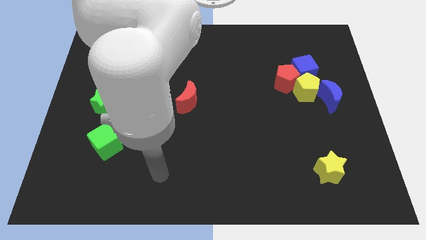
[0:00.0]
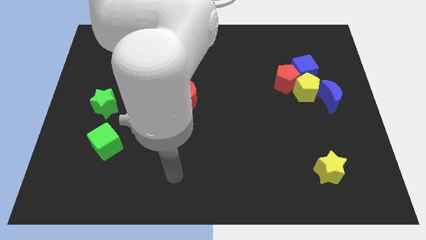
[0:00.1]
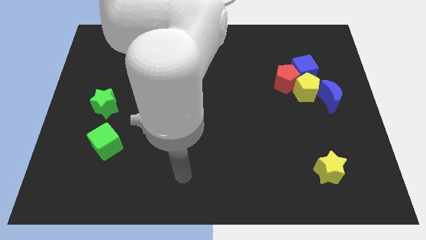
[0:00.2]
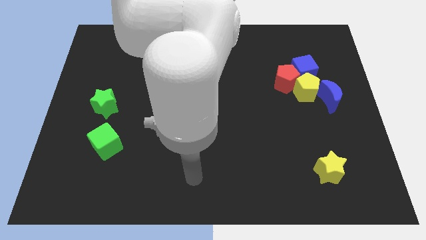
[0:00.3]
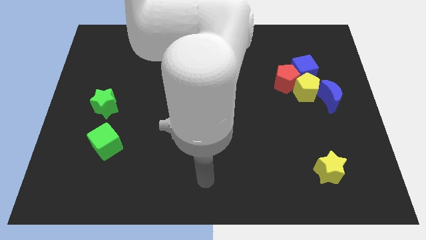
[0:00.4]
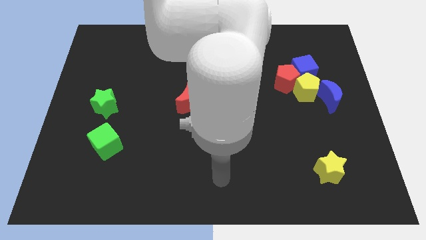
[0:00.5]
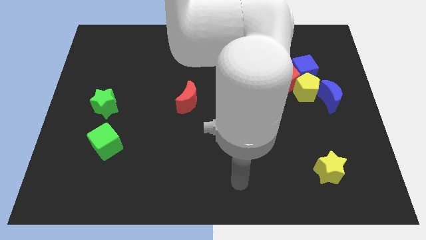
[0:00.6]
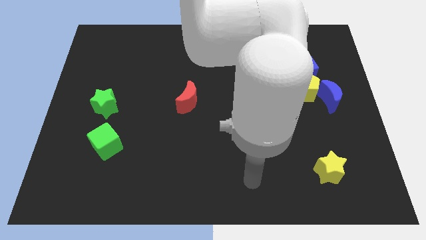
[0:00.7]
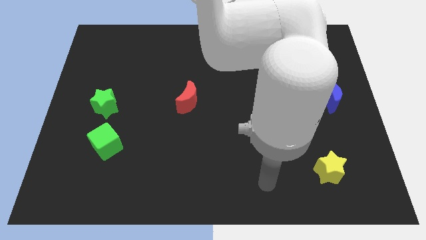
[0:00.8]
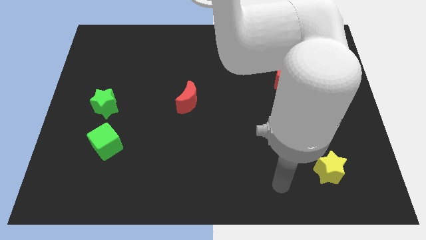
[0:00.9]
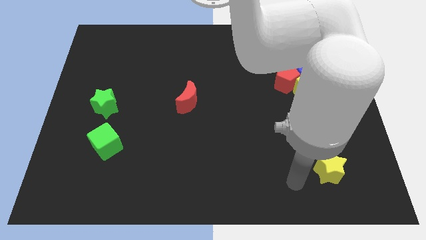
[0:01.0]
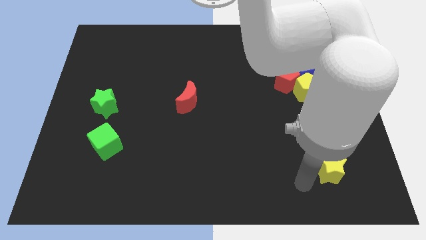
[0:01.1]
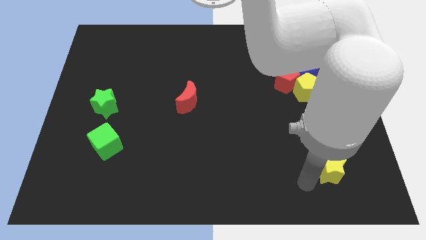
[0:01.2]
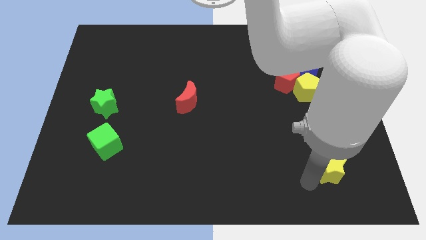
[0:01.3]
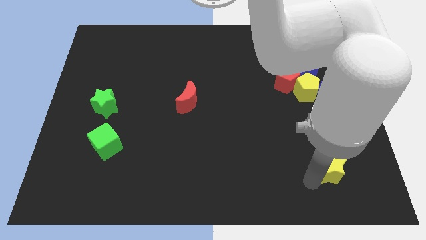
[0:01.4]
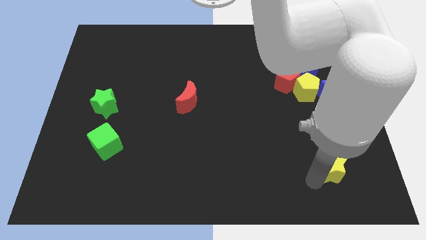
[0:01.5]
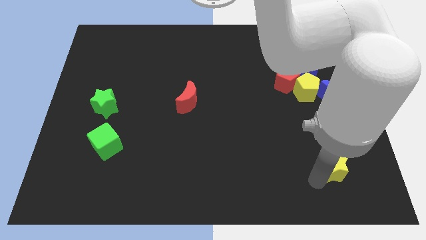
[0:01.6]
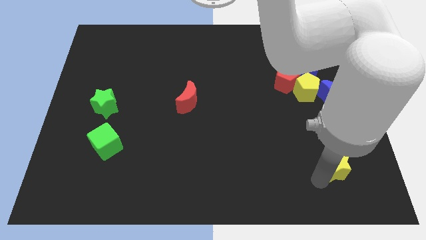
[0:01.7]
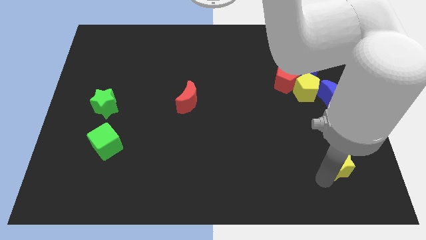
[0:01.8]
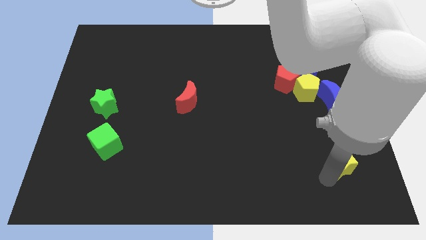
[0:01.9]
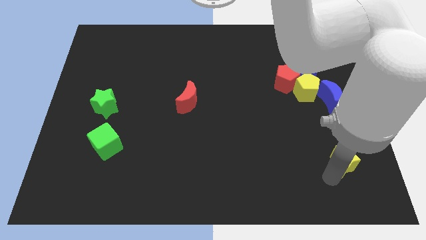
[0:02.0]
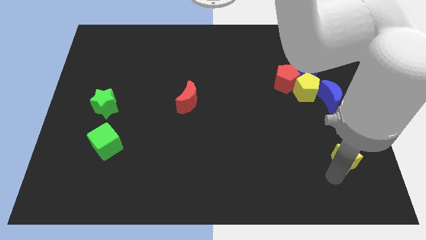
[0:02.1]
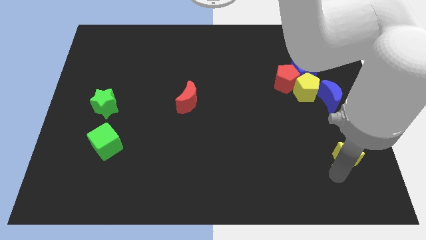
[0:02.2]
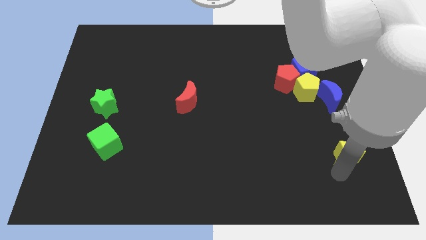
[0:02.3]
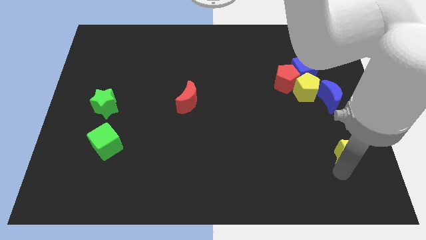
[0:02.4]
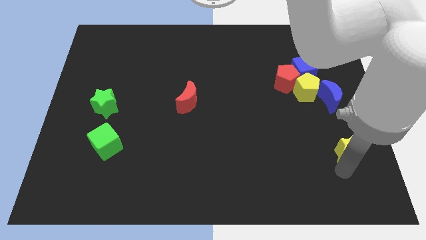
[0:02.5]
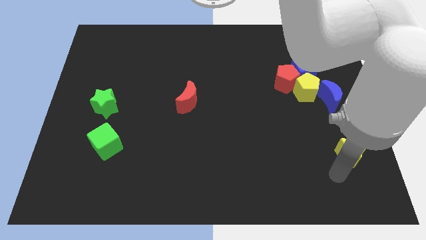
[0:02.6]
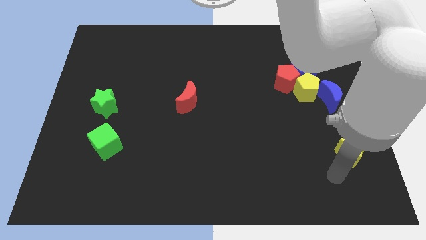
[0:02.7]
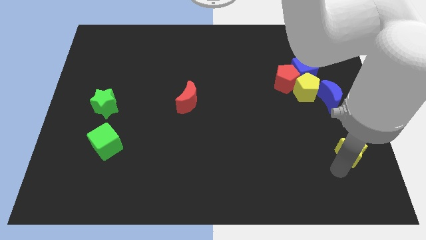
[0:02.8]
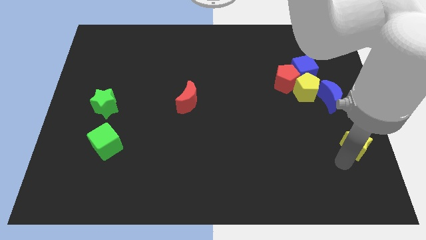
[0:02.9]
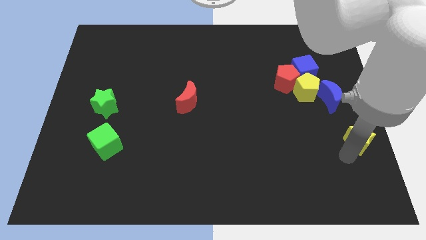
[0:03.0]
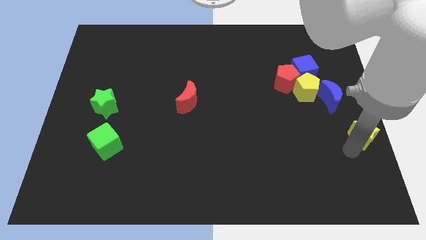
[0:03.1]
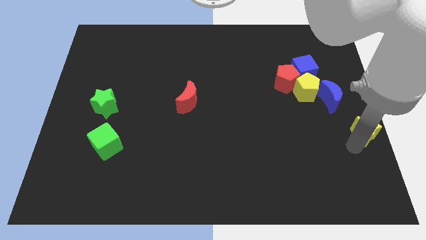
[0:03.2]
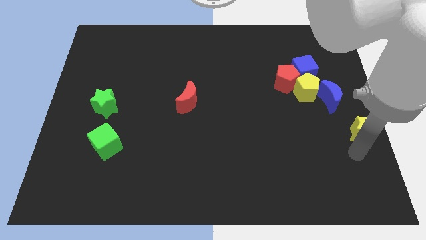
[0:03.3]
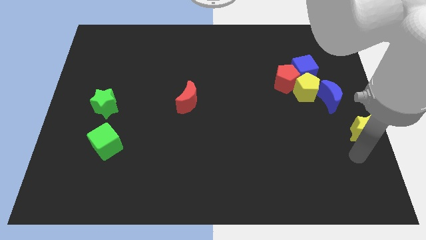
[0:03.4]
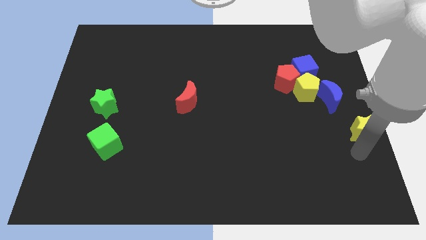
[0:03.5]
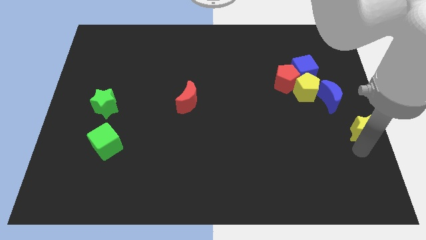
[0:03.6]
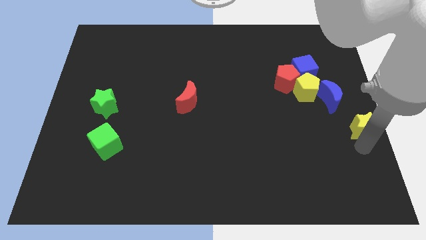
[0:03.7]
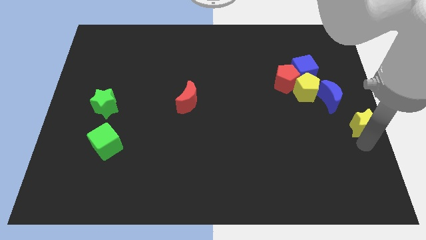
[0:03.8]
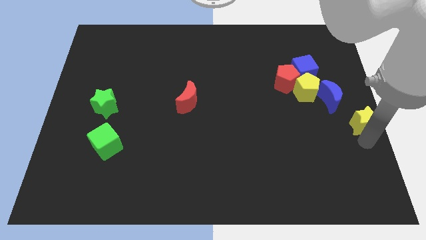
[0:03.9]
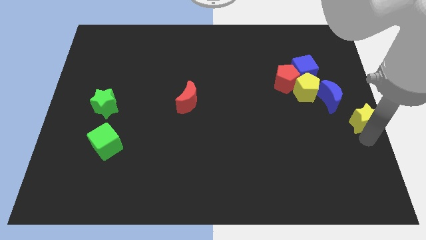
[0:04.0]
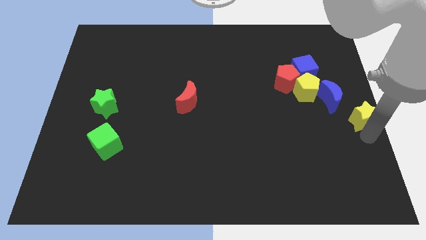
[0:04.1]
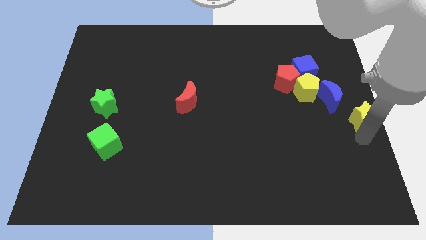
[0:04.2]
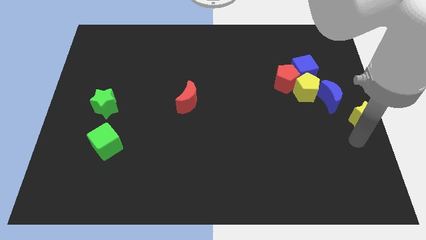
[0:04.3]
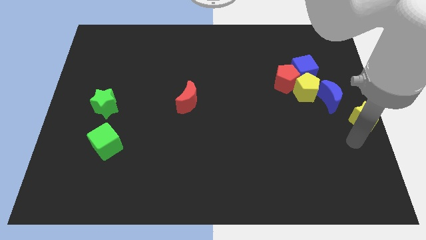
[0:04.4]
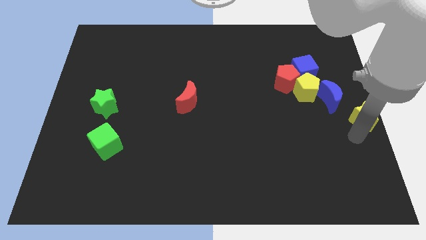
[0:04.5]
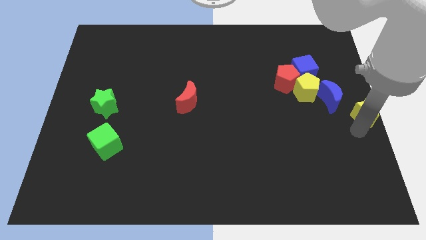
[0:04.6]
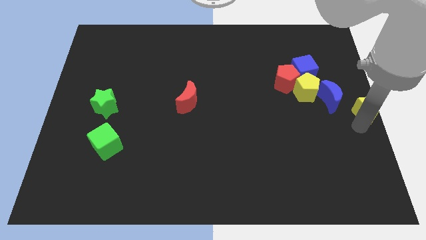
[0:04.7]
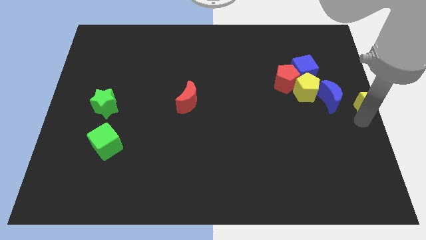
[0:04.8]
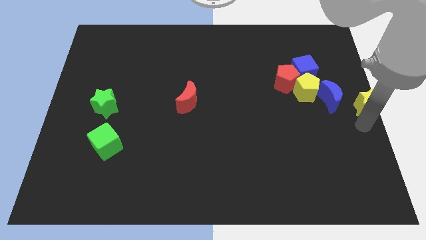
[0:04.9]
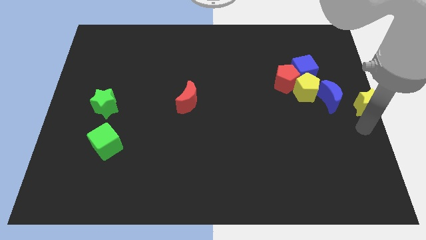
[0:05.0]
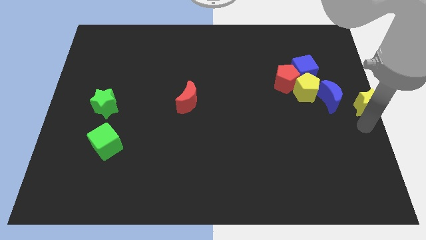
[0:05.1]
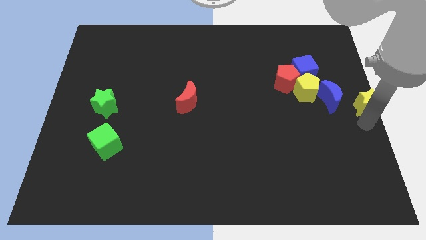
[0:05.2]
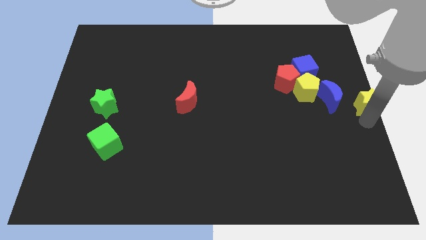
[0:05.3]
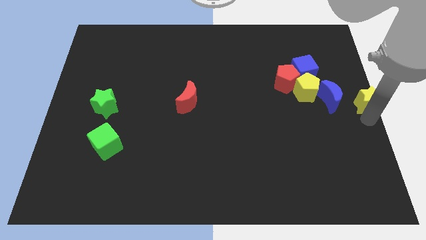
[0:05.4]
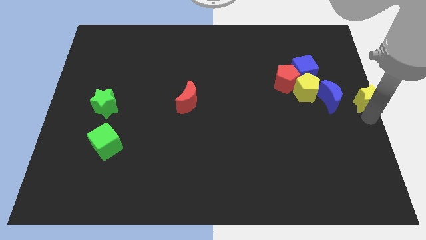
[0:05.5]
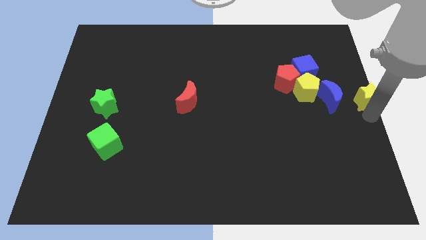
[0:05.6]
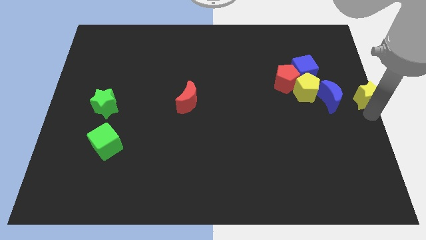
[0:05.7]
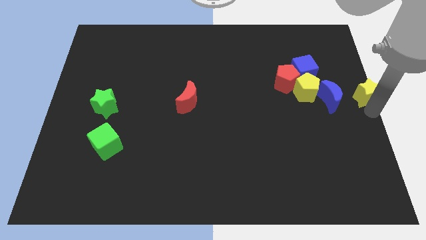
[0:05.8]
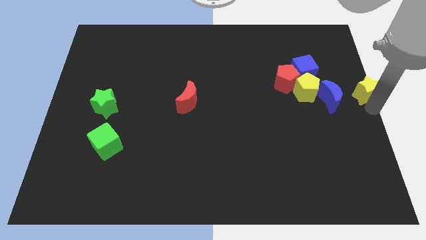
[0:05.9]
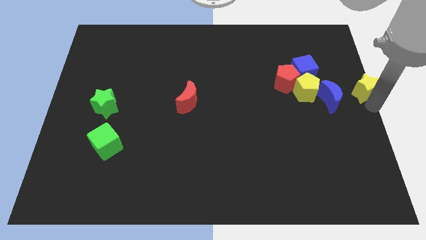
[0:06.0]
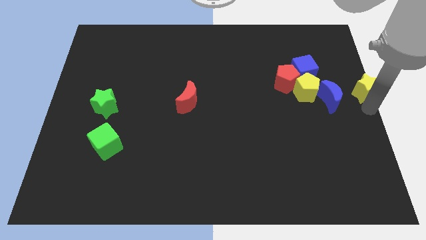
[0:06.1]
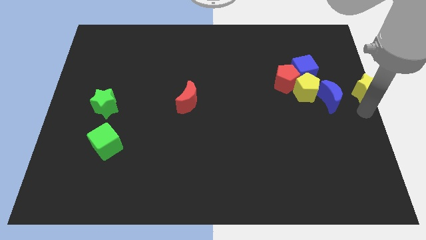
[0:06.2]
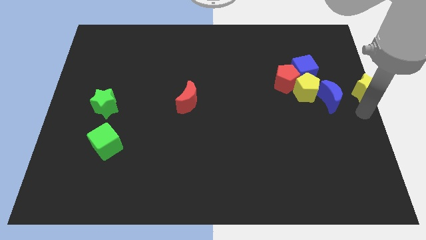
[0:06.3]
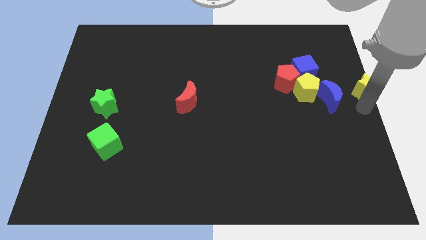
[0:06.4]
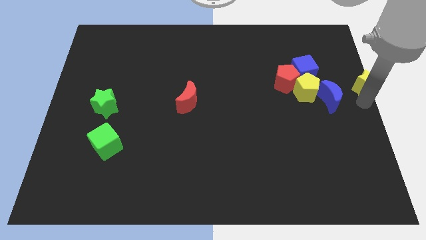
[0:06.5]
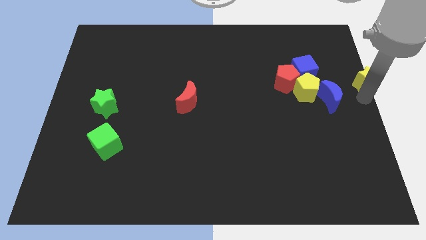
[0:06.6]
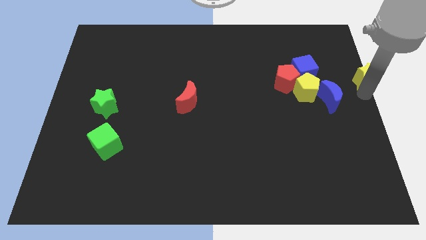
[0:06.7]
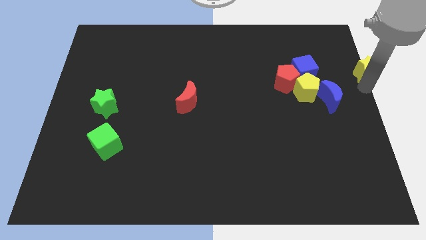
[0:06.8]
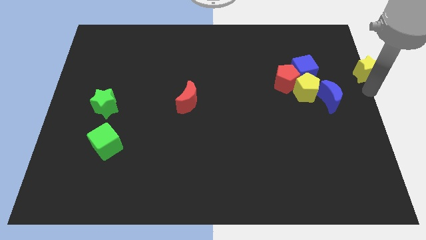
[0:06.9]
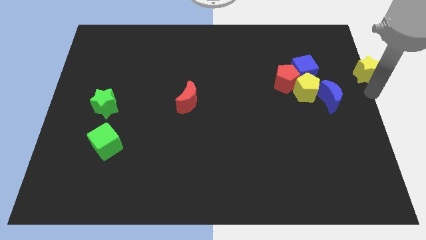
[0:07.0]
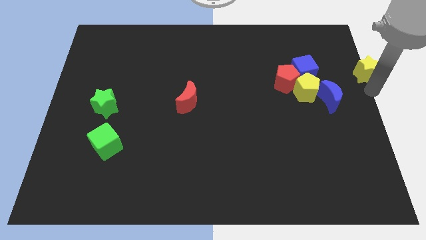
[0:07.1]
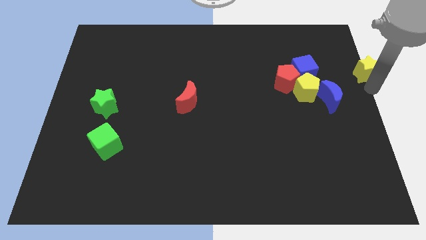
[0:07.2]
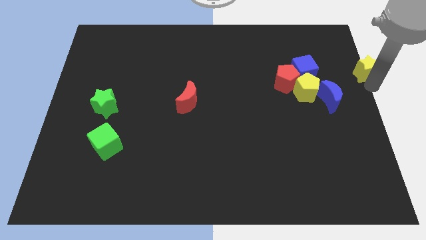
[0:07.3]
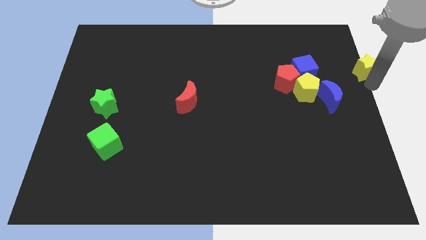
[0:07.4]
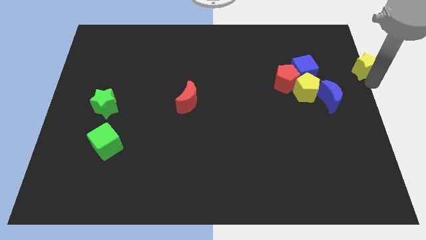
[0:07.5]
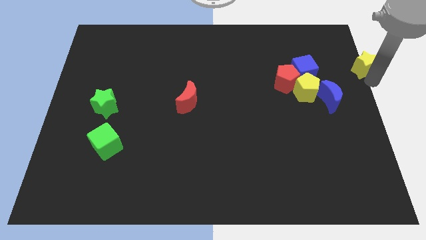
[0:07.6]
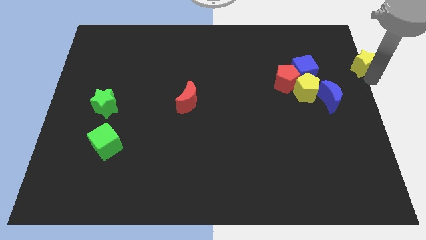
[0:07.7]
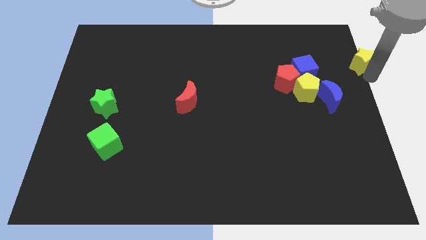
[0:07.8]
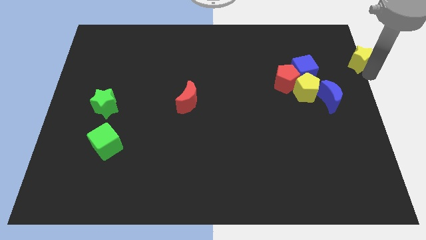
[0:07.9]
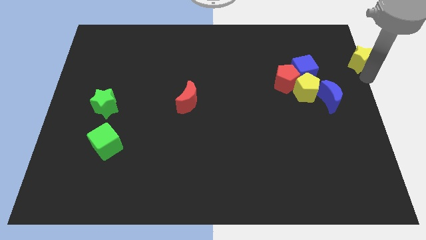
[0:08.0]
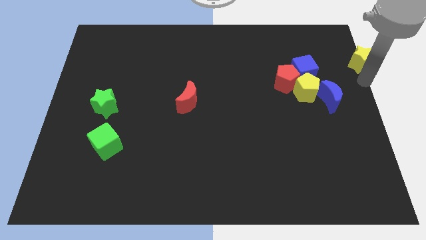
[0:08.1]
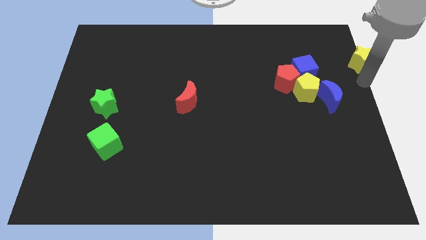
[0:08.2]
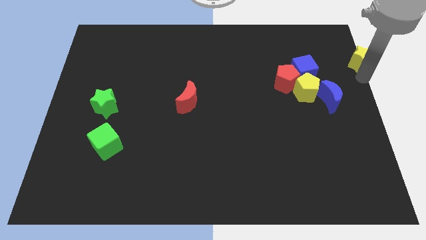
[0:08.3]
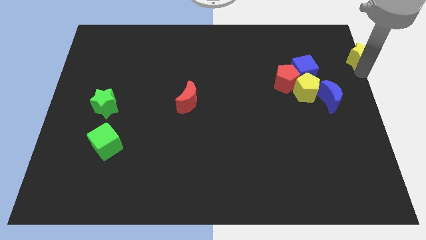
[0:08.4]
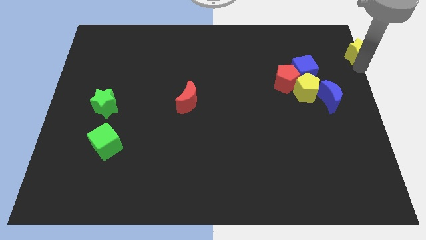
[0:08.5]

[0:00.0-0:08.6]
push the yellow star to the top right of the board
